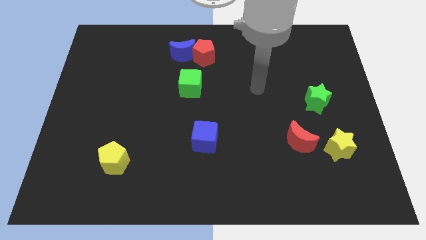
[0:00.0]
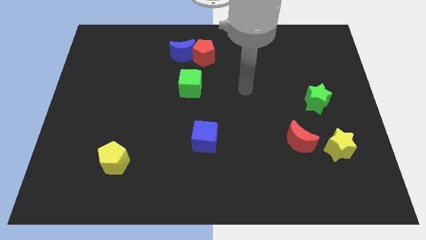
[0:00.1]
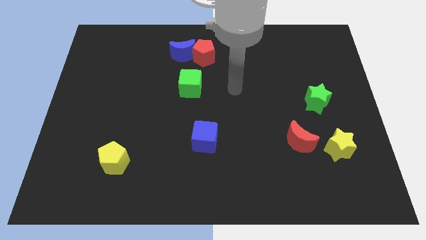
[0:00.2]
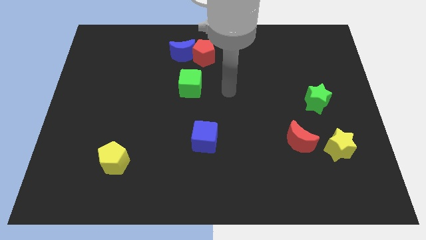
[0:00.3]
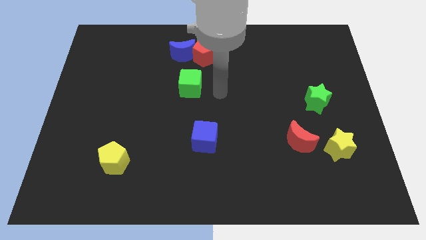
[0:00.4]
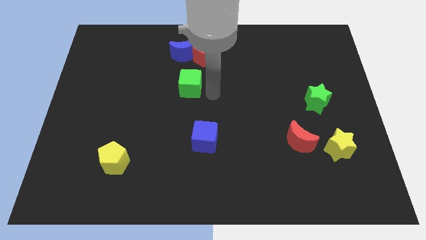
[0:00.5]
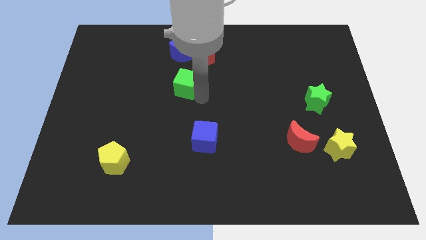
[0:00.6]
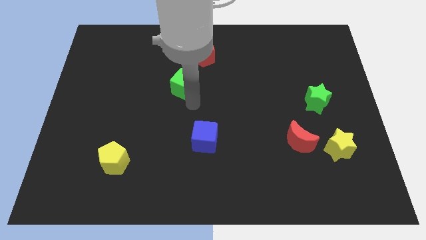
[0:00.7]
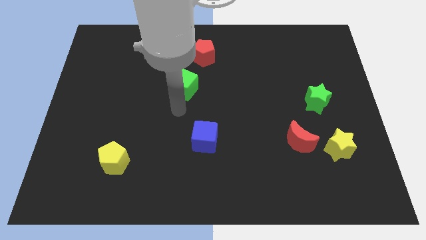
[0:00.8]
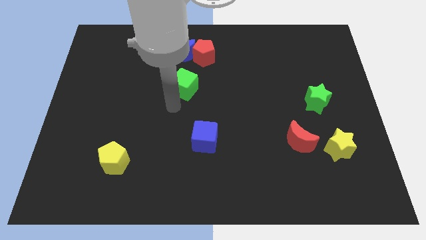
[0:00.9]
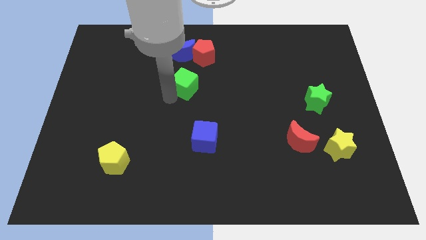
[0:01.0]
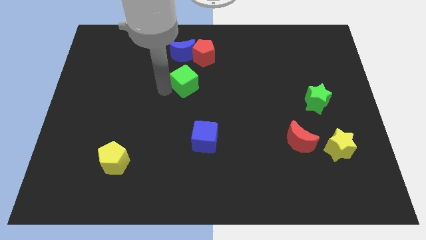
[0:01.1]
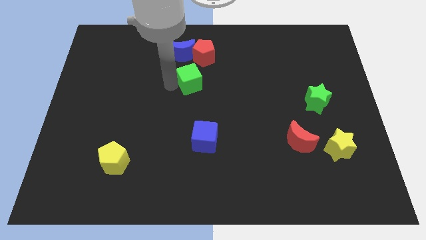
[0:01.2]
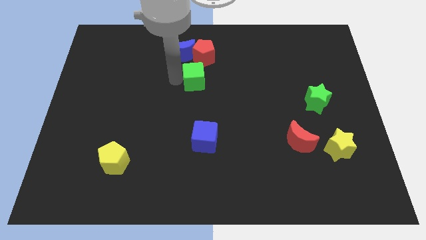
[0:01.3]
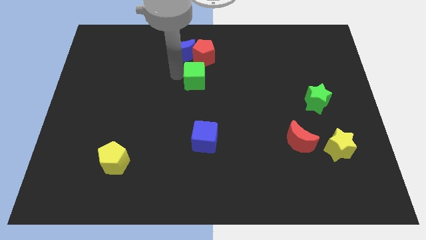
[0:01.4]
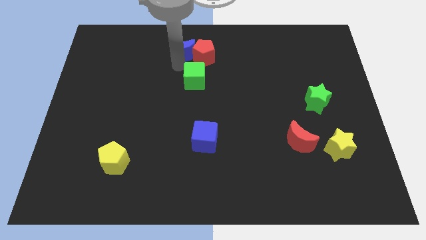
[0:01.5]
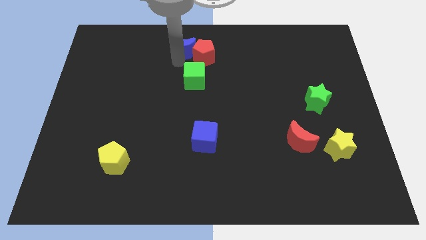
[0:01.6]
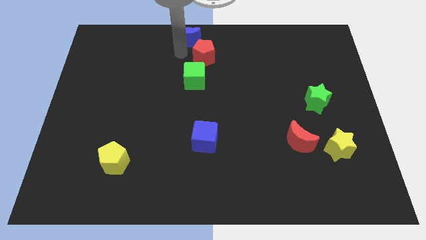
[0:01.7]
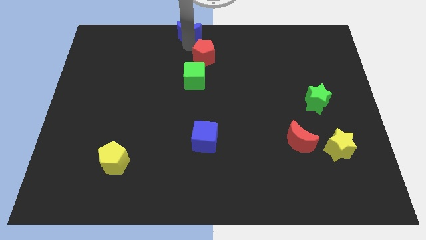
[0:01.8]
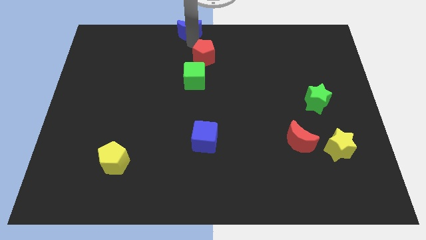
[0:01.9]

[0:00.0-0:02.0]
move the red pentagon away from the blue moon

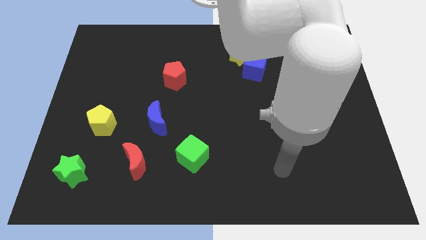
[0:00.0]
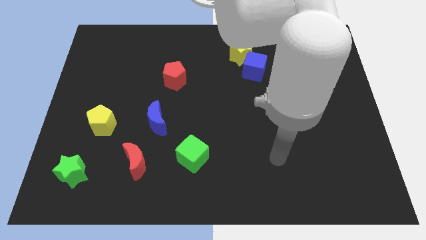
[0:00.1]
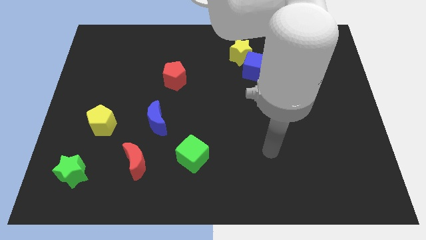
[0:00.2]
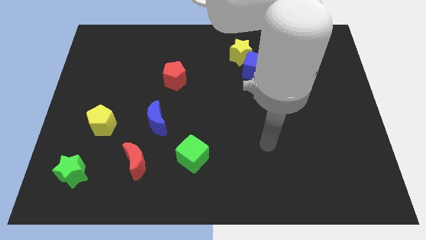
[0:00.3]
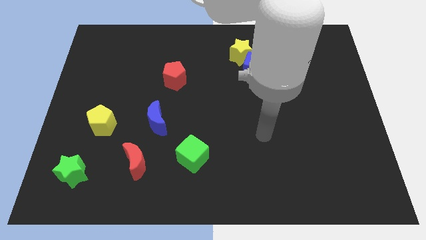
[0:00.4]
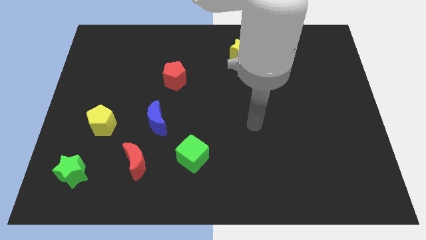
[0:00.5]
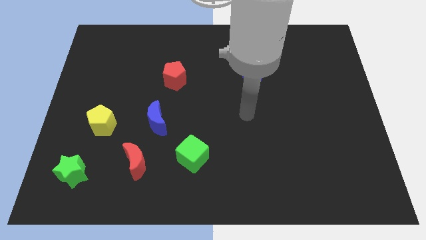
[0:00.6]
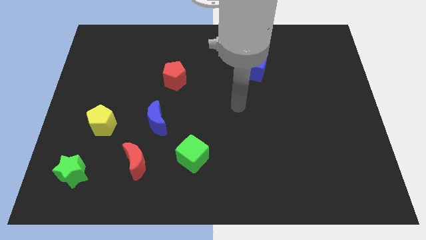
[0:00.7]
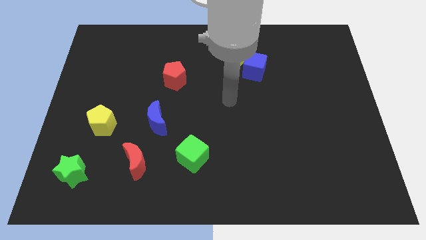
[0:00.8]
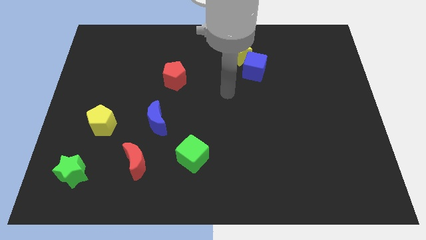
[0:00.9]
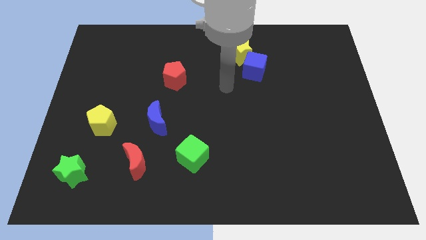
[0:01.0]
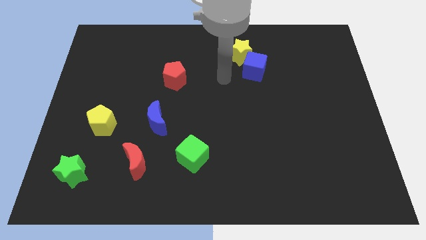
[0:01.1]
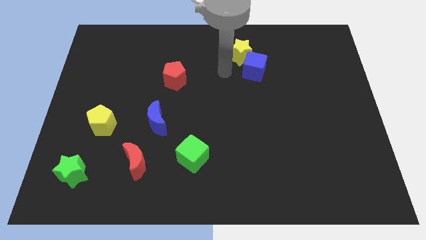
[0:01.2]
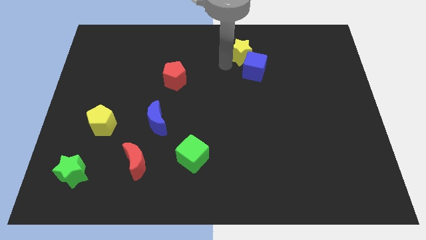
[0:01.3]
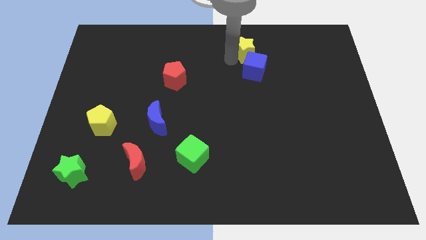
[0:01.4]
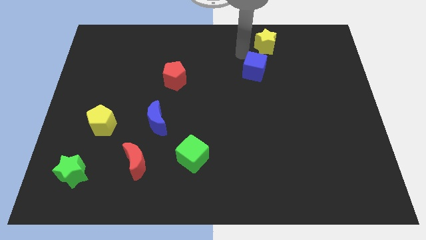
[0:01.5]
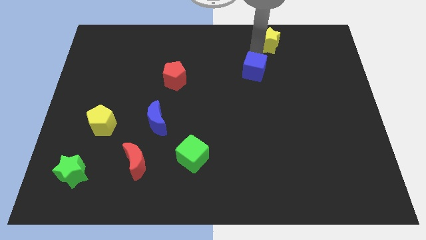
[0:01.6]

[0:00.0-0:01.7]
move the blue cube away from the yellow star

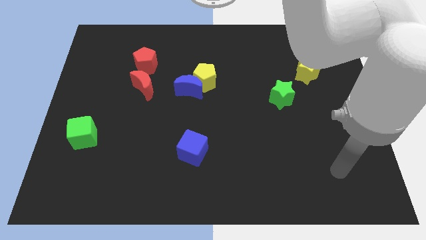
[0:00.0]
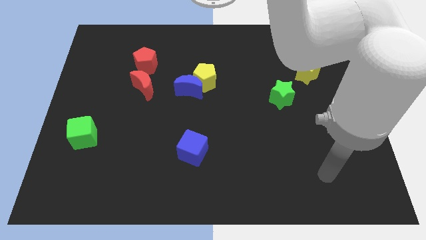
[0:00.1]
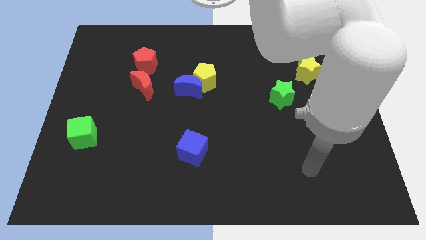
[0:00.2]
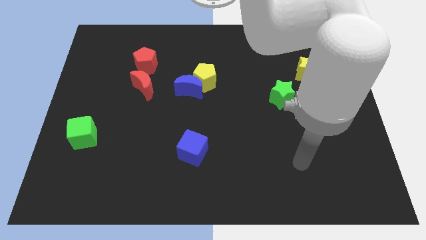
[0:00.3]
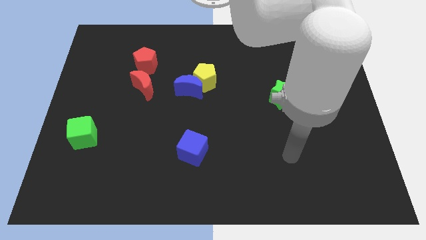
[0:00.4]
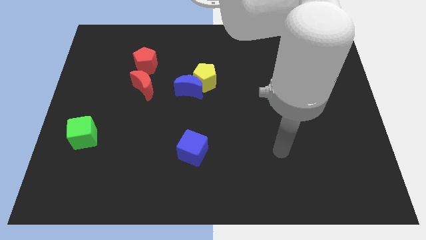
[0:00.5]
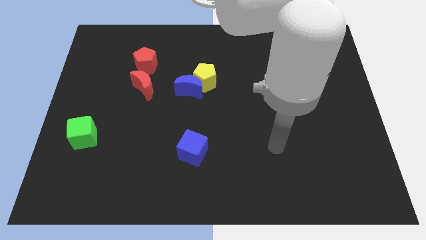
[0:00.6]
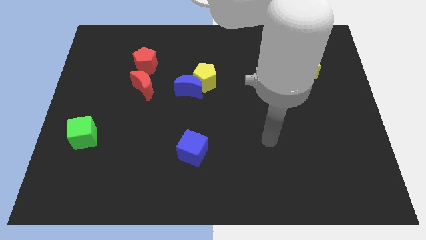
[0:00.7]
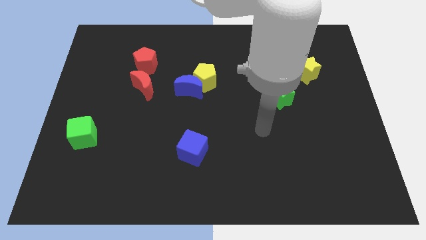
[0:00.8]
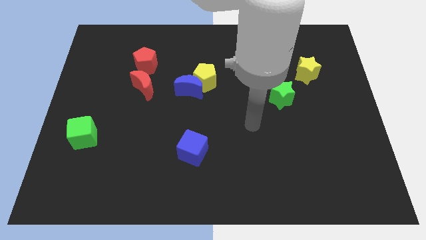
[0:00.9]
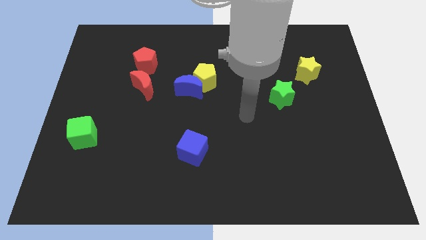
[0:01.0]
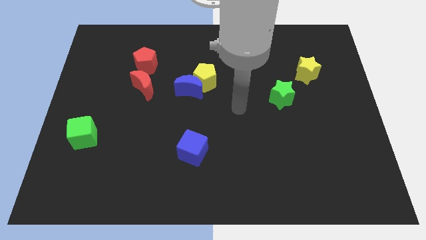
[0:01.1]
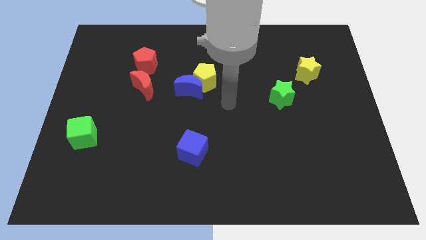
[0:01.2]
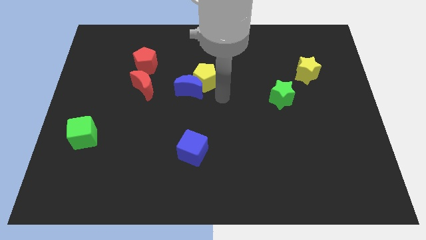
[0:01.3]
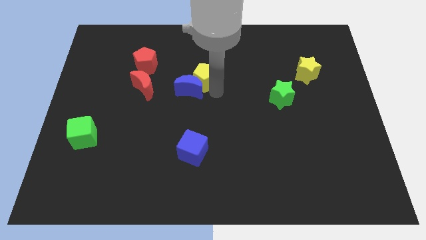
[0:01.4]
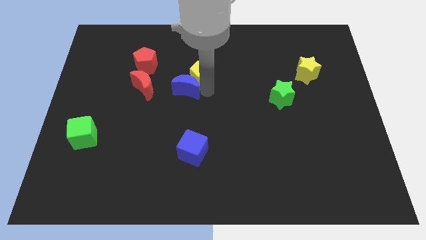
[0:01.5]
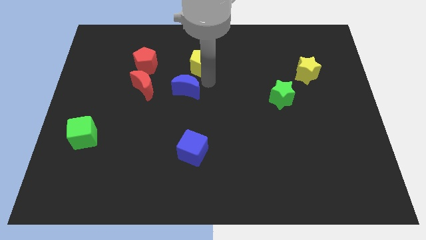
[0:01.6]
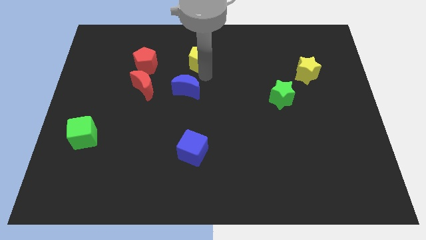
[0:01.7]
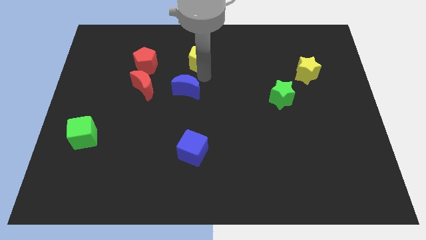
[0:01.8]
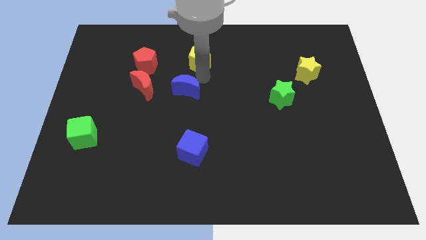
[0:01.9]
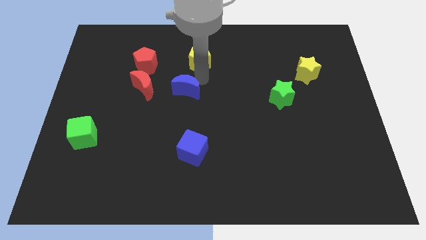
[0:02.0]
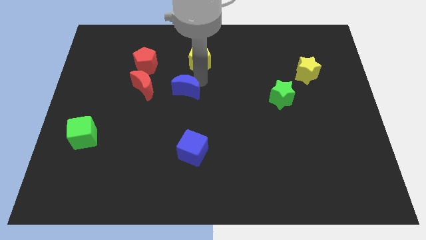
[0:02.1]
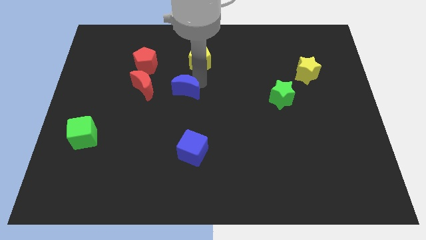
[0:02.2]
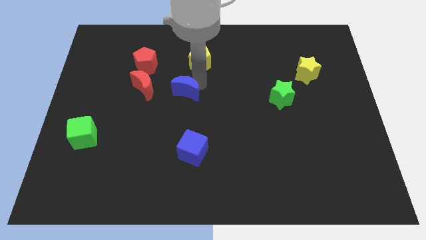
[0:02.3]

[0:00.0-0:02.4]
separate the blue moon from the yellow pentagon

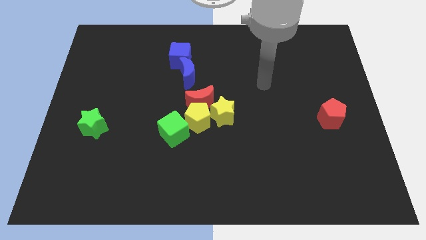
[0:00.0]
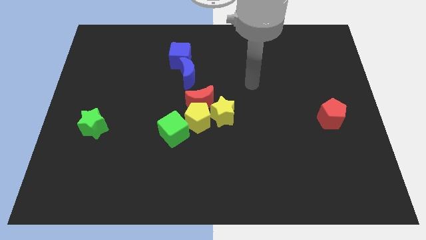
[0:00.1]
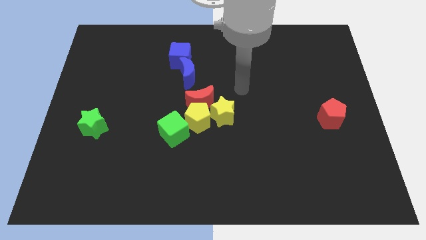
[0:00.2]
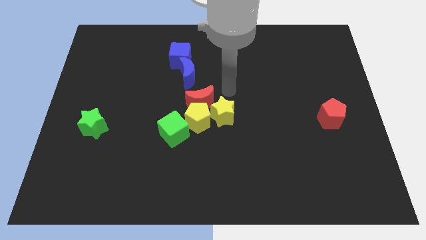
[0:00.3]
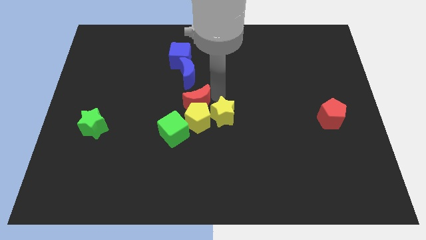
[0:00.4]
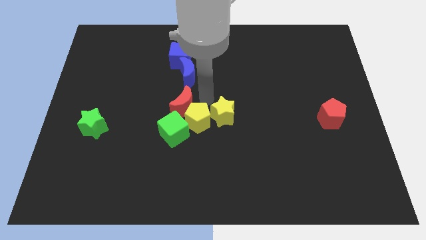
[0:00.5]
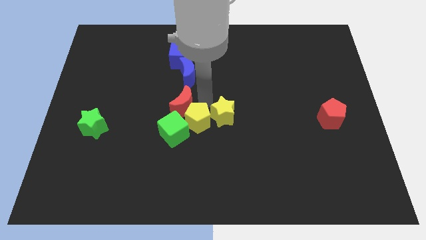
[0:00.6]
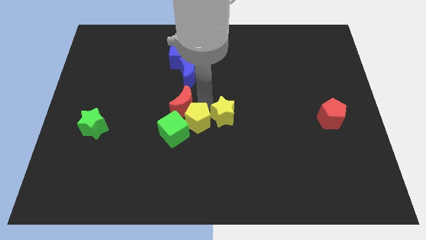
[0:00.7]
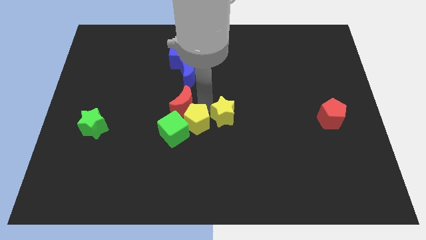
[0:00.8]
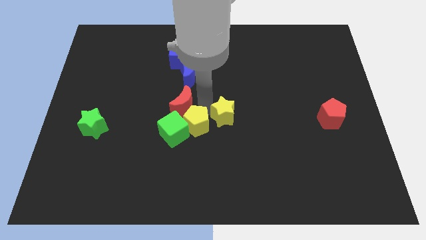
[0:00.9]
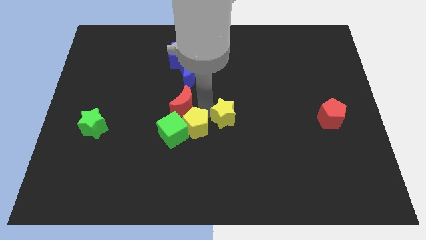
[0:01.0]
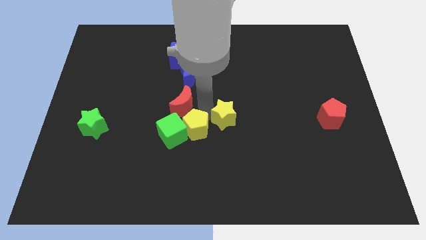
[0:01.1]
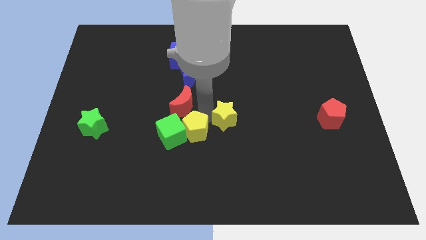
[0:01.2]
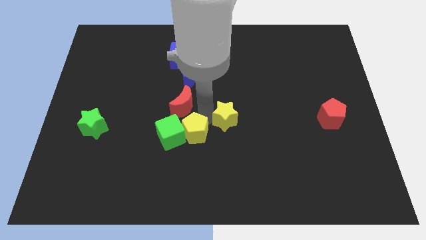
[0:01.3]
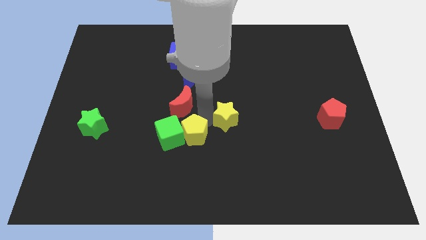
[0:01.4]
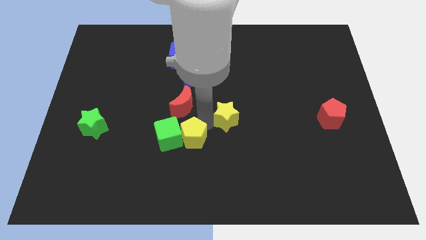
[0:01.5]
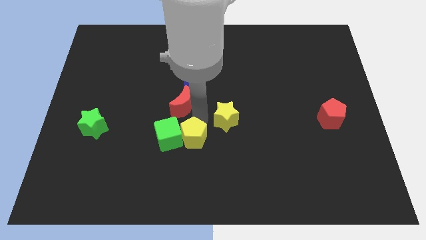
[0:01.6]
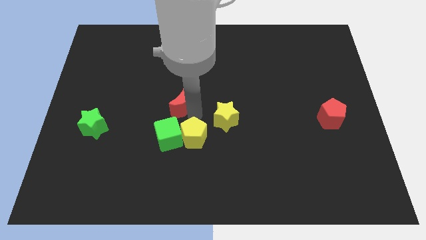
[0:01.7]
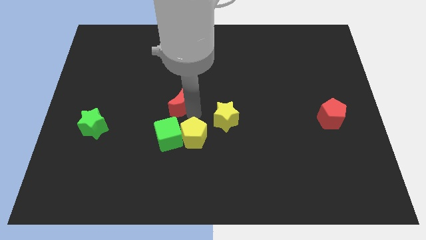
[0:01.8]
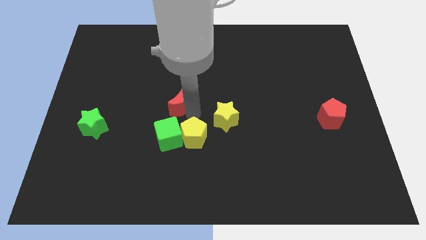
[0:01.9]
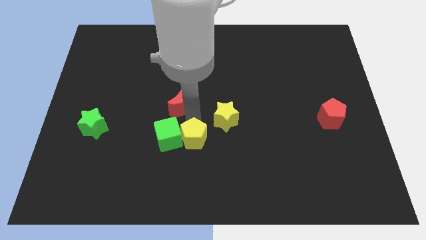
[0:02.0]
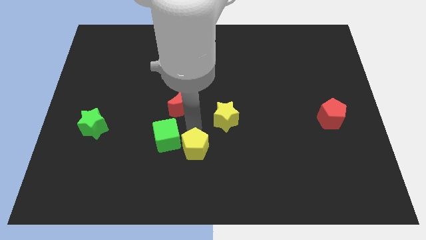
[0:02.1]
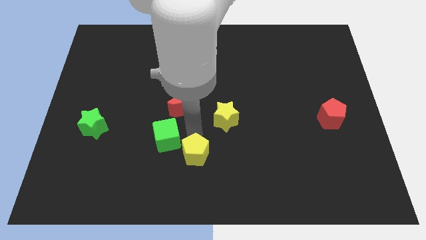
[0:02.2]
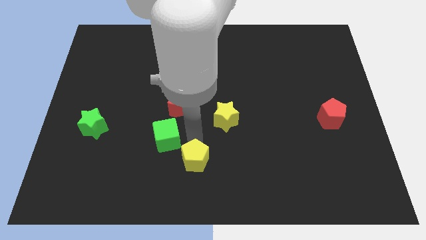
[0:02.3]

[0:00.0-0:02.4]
separate the yellow pentagon from the red moon, yellow star, and green cube

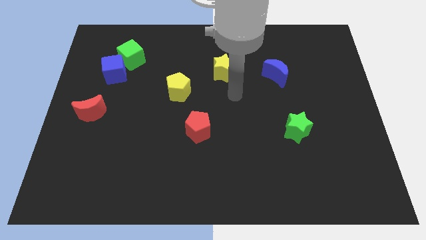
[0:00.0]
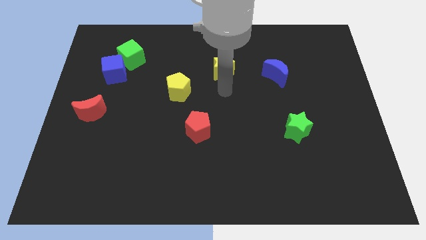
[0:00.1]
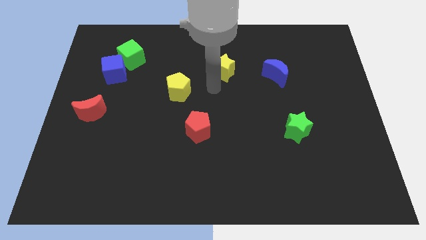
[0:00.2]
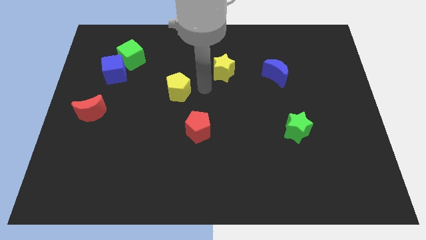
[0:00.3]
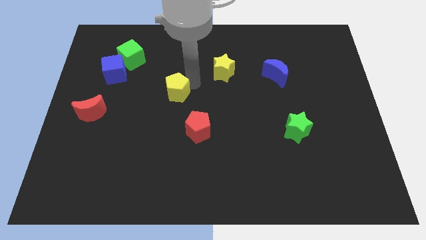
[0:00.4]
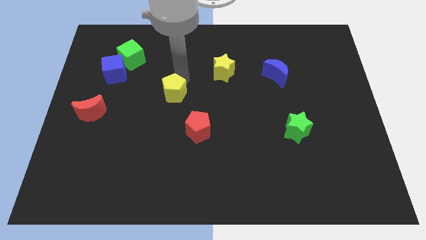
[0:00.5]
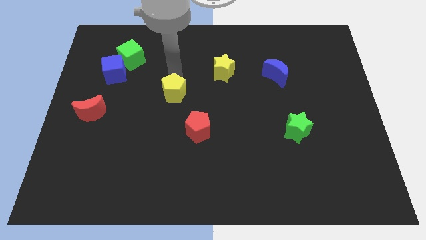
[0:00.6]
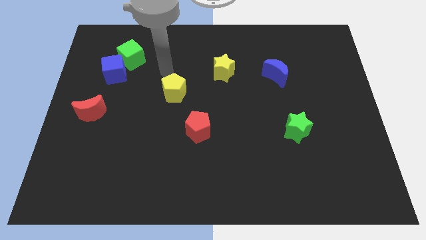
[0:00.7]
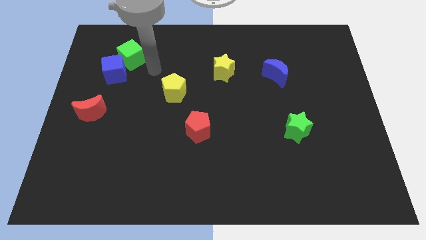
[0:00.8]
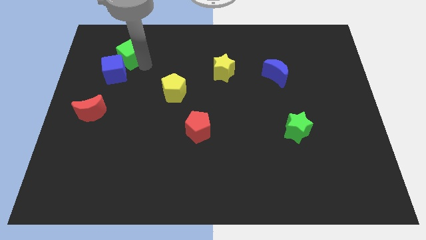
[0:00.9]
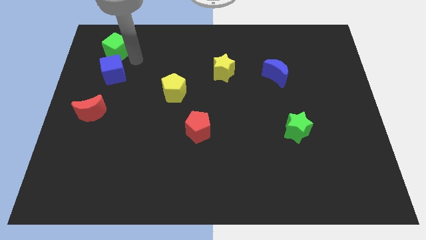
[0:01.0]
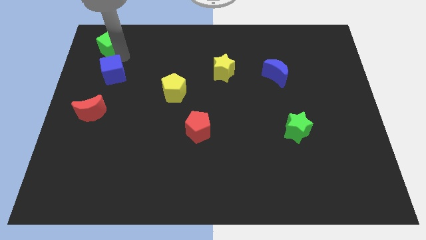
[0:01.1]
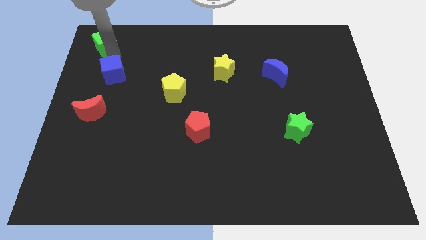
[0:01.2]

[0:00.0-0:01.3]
move the blue cube away from the green cube
